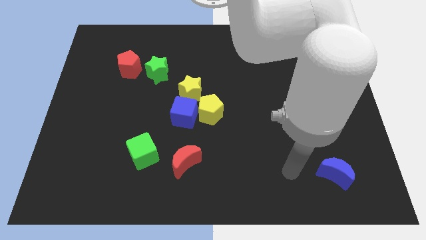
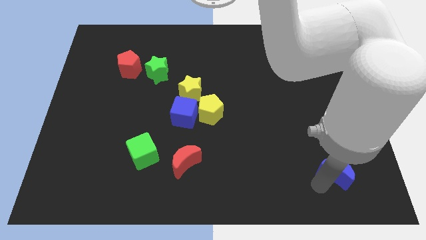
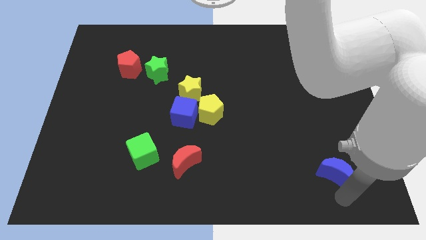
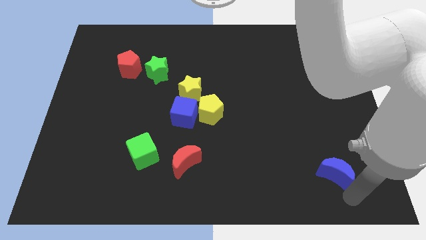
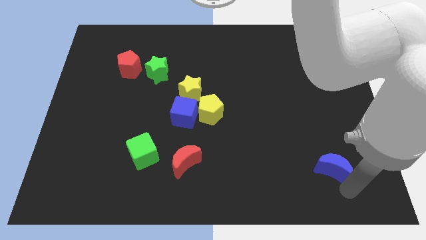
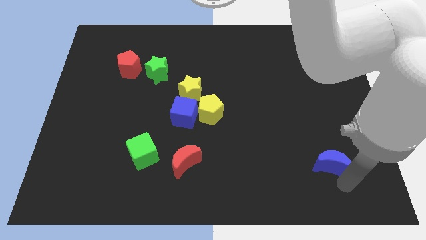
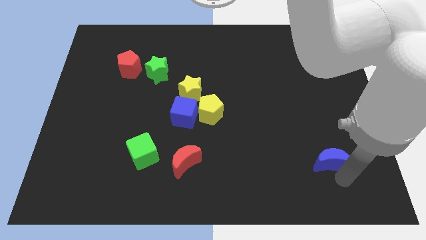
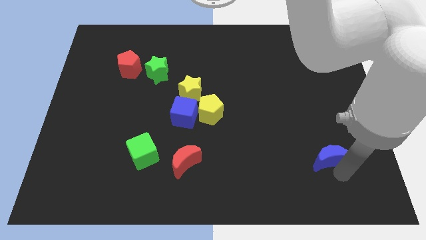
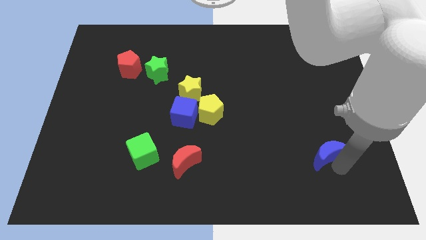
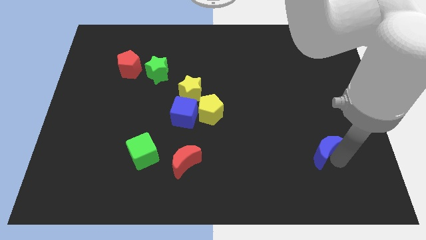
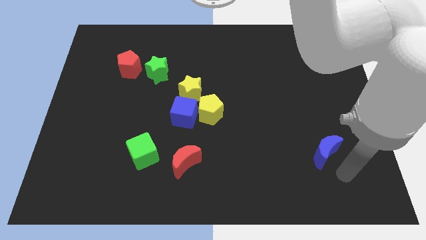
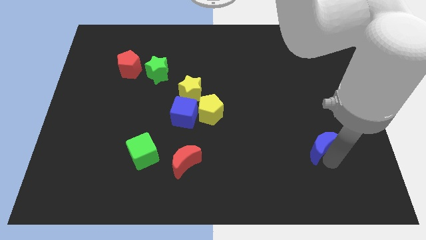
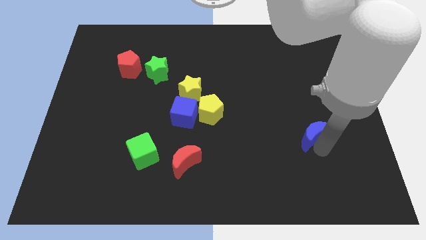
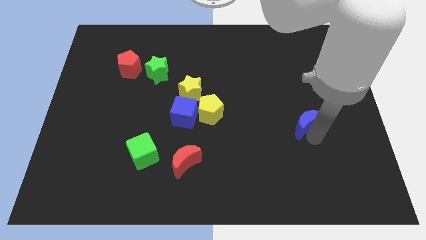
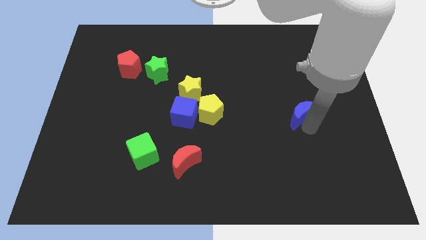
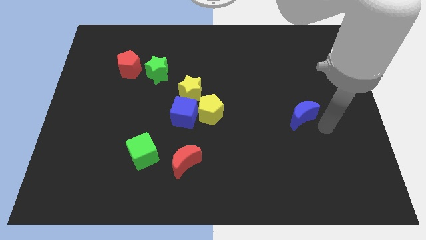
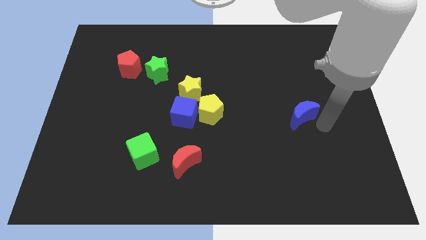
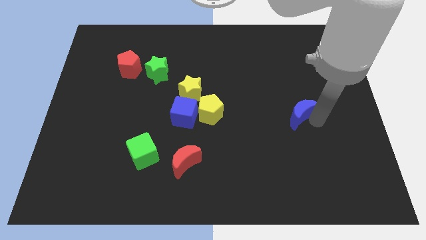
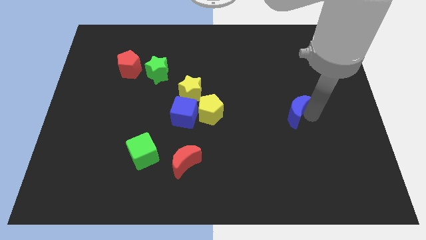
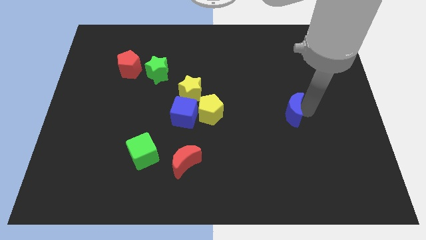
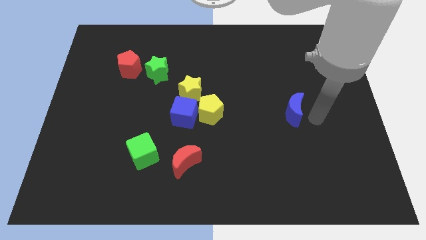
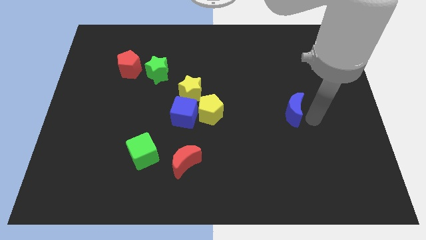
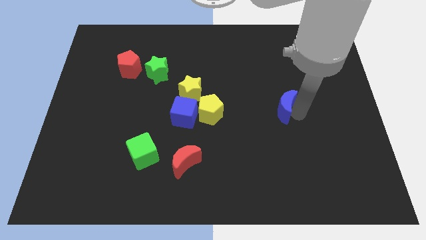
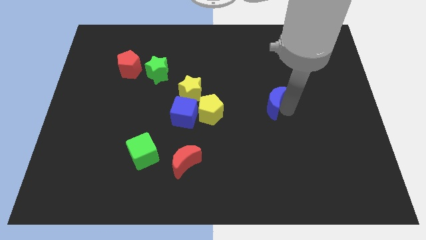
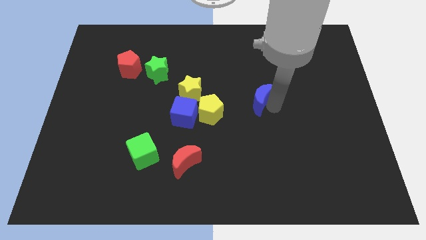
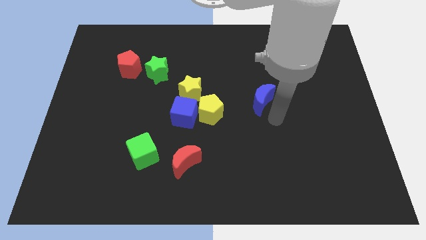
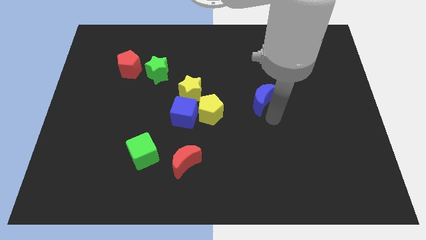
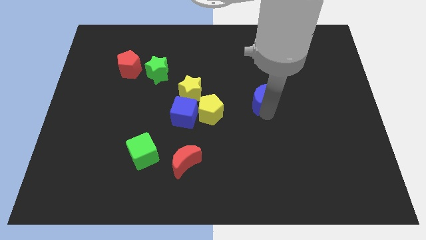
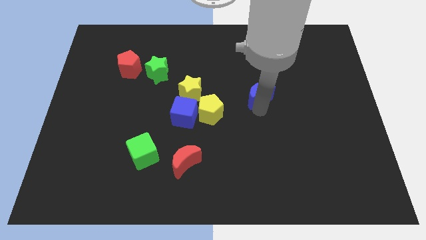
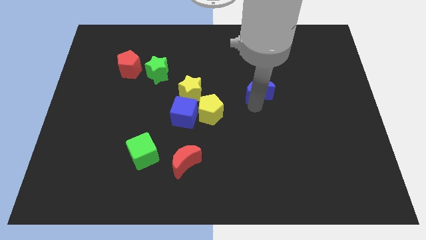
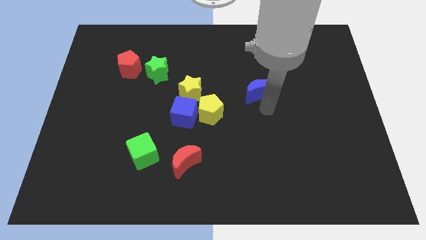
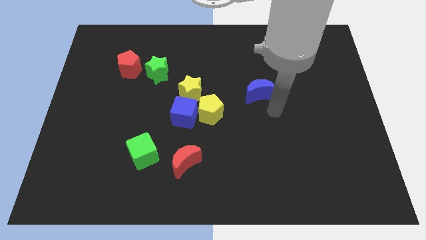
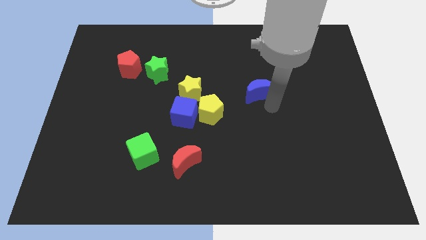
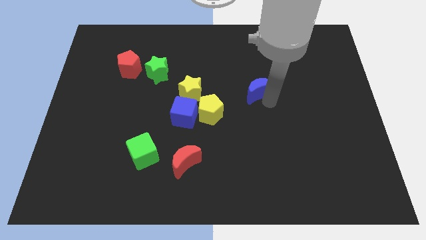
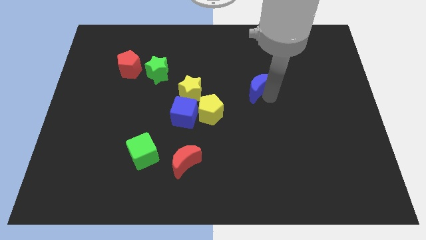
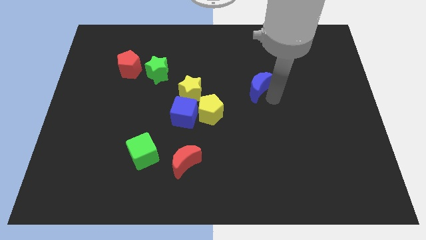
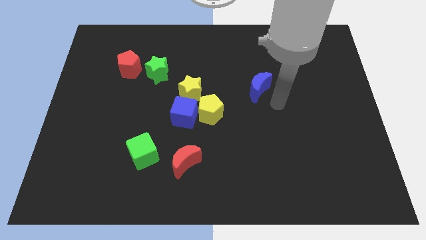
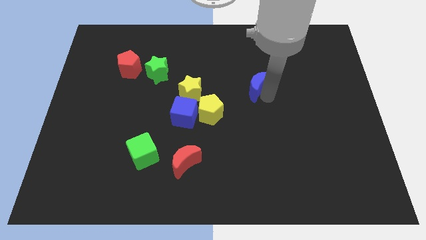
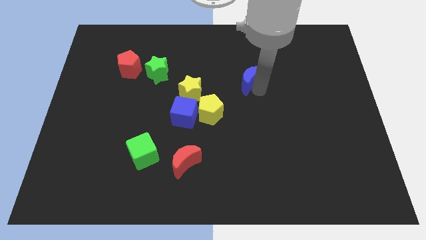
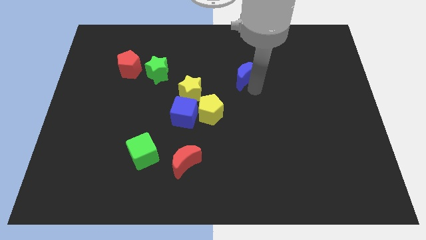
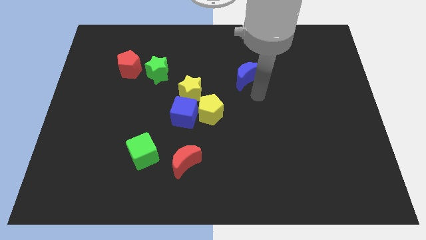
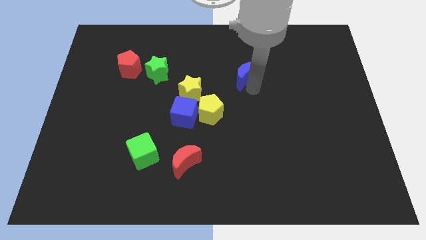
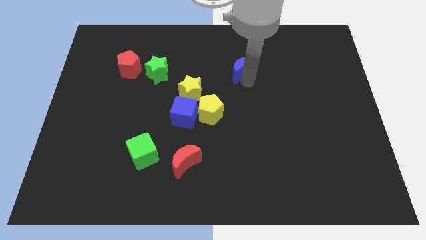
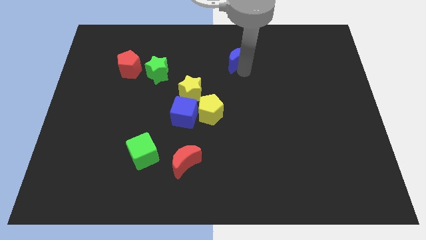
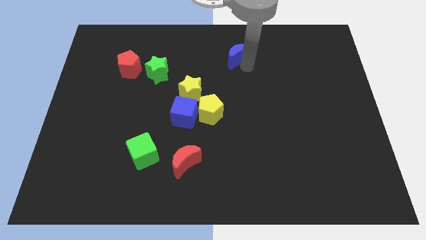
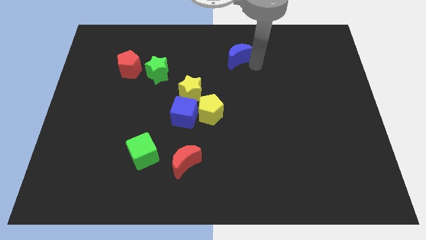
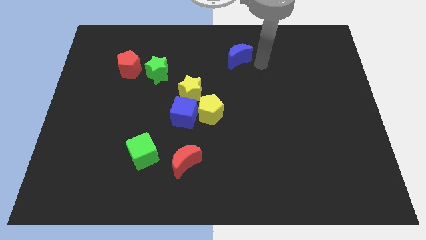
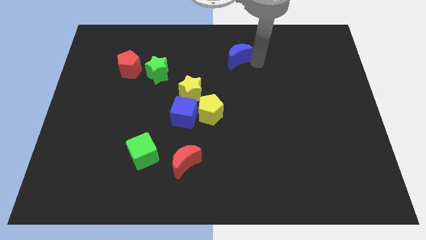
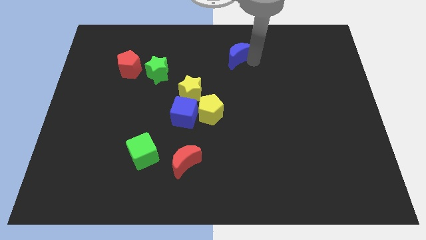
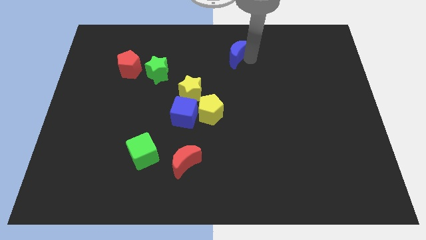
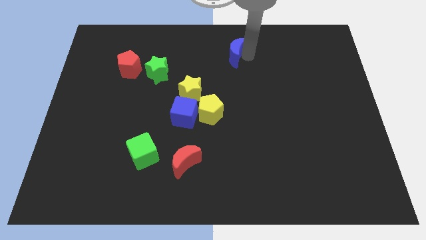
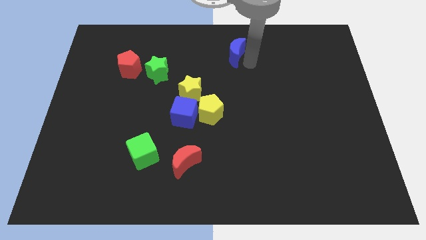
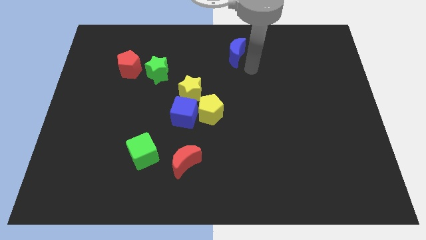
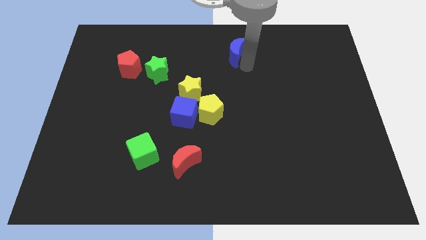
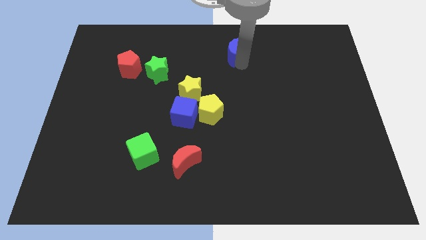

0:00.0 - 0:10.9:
push the blue moon to the top
